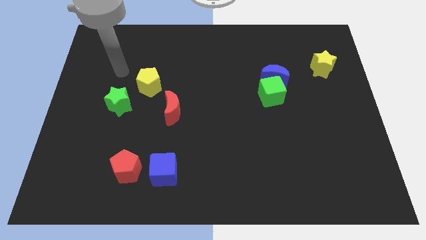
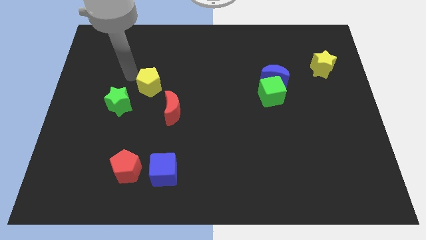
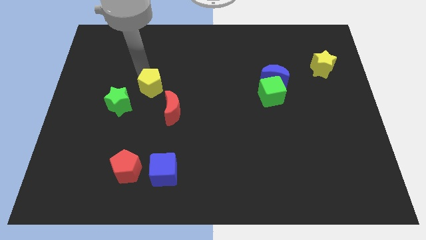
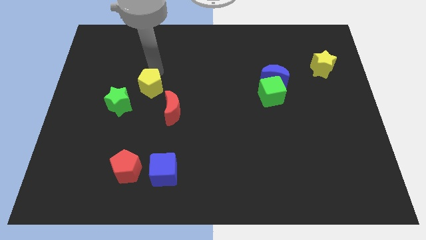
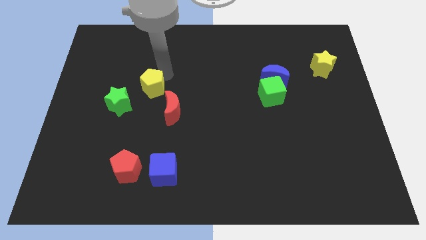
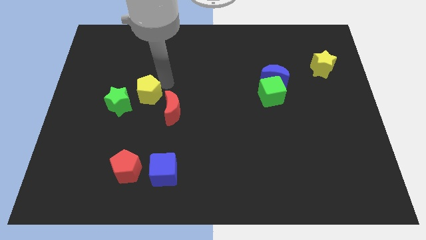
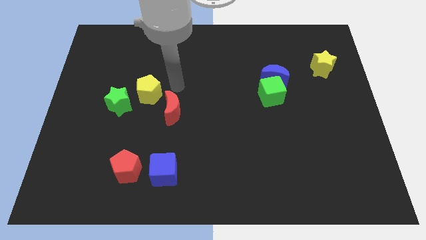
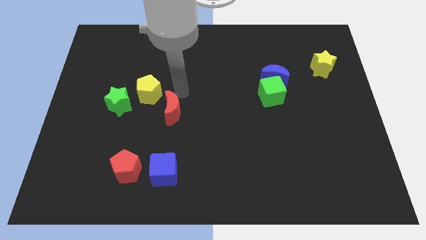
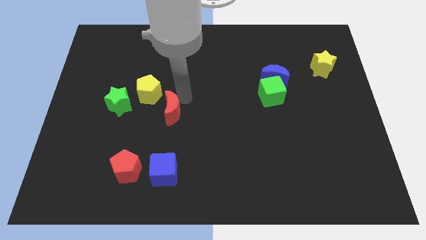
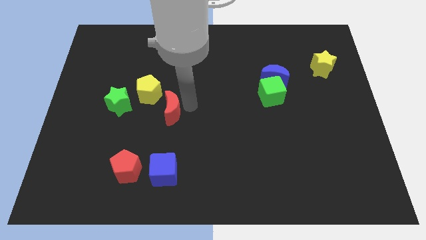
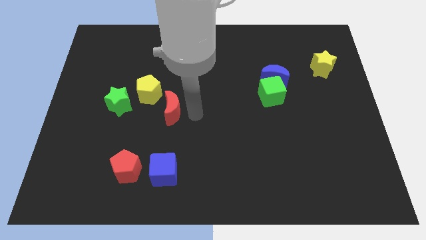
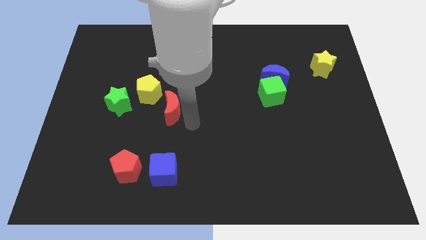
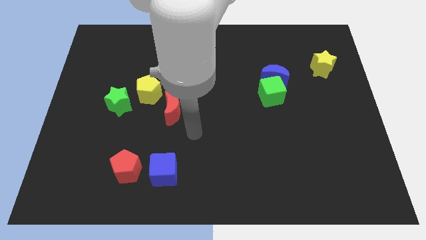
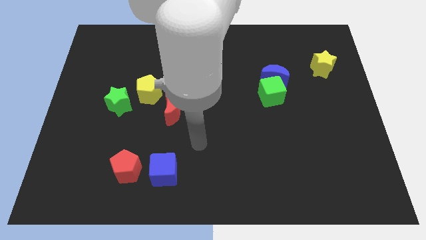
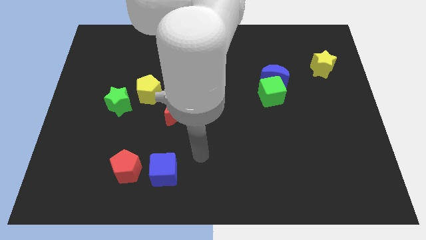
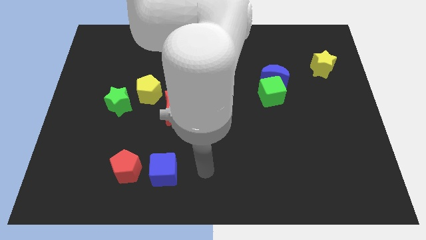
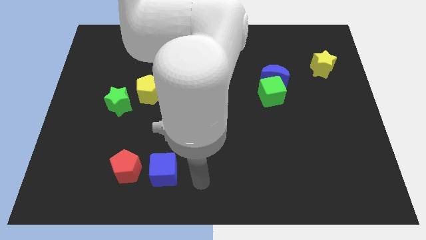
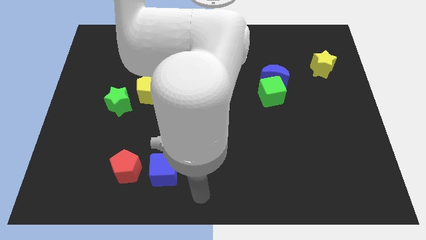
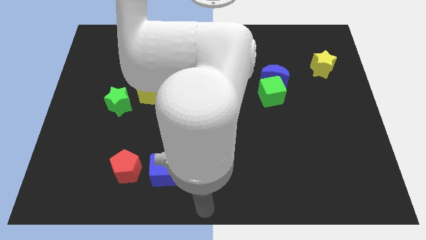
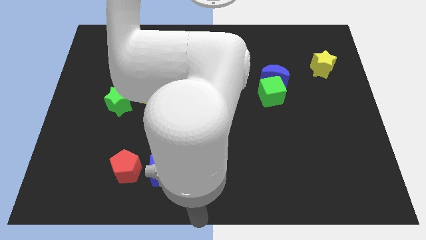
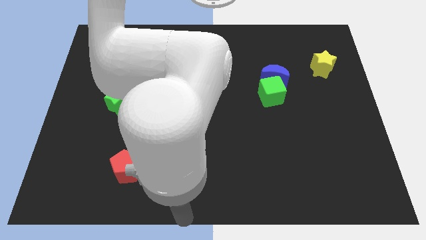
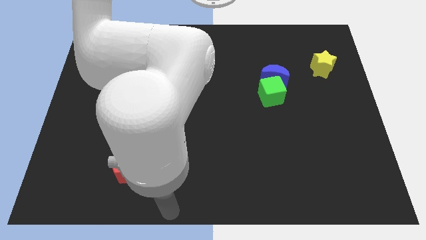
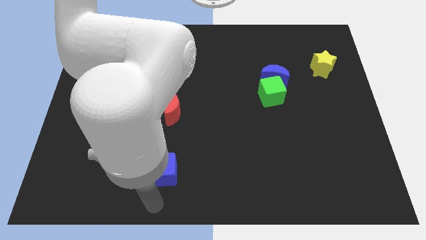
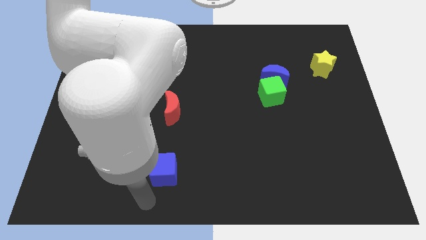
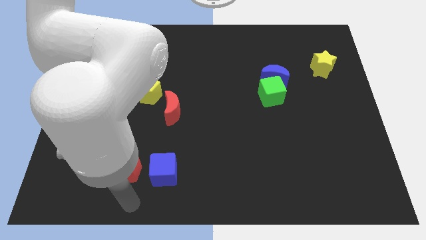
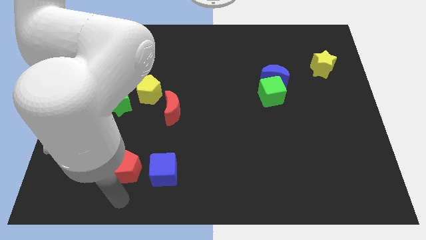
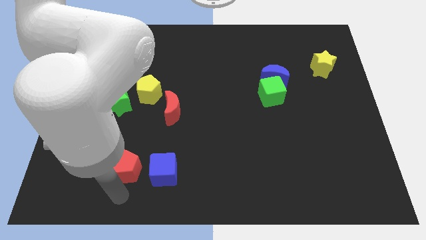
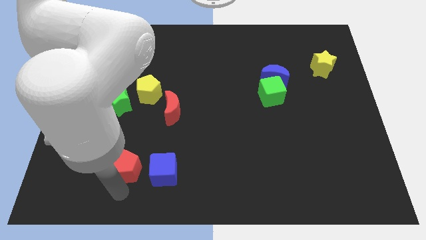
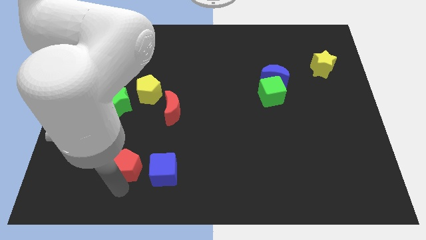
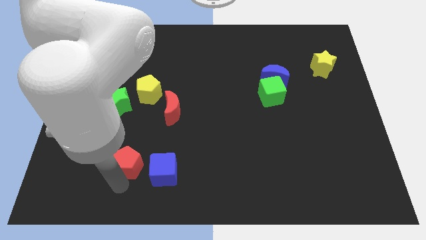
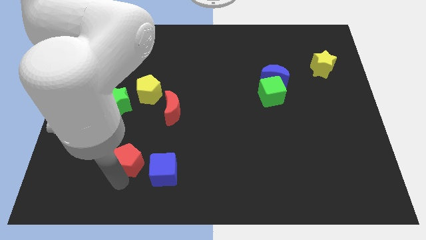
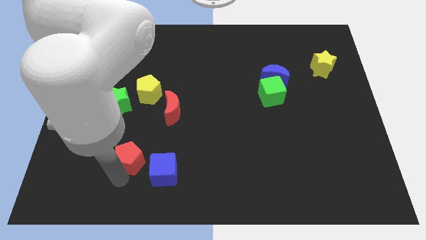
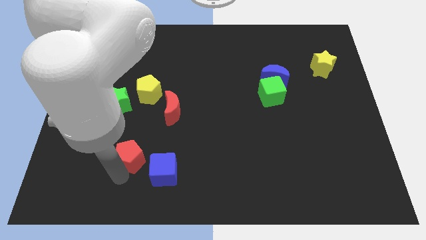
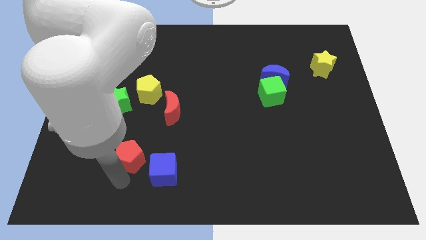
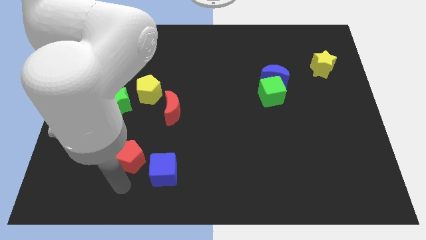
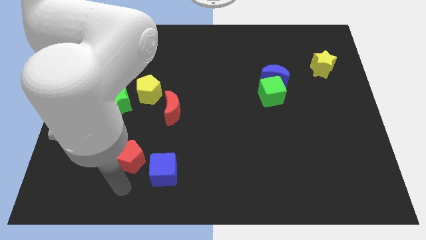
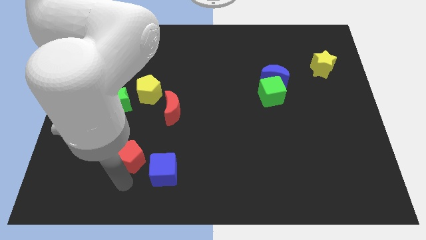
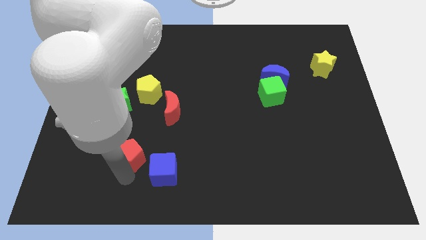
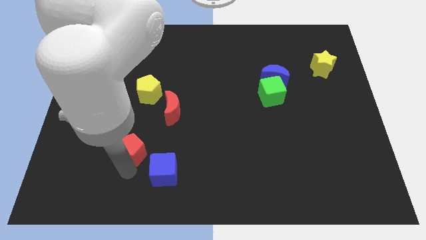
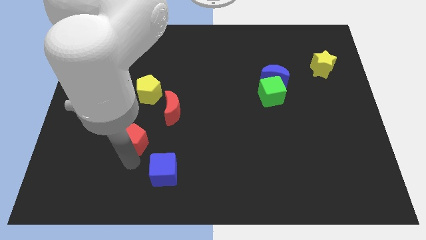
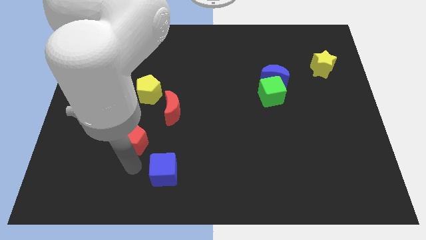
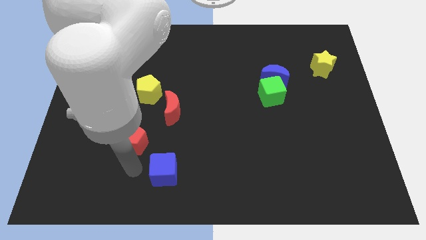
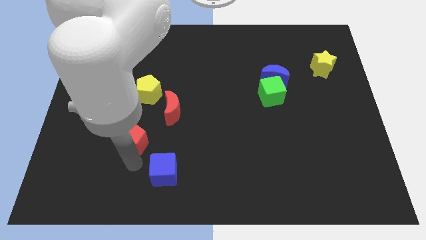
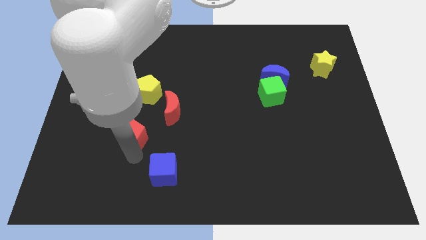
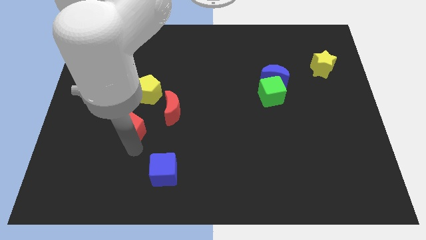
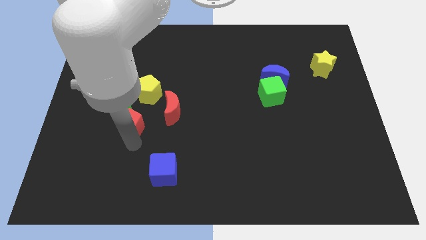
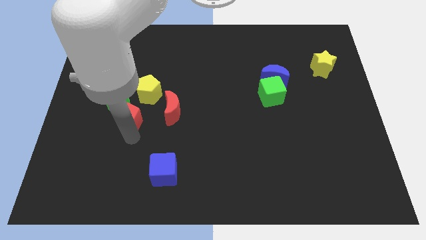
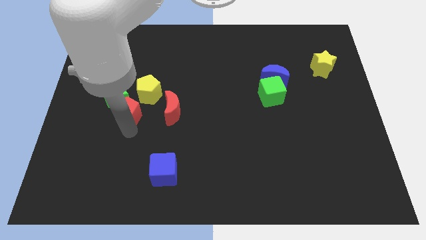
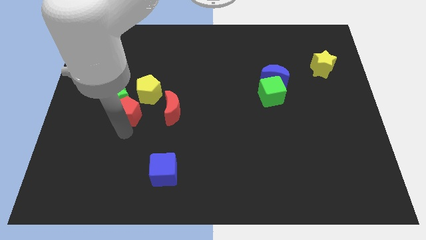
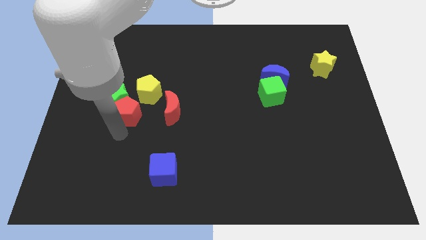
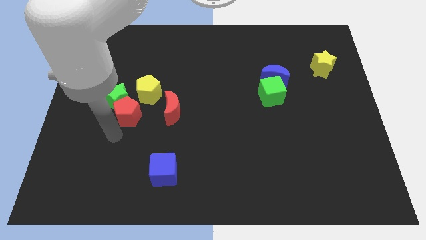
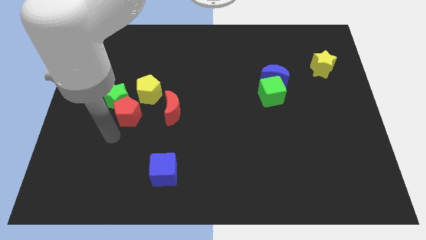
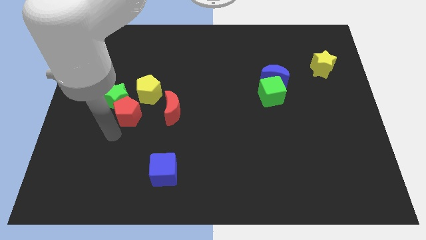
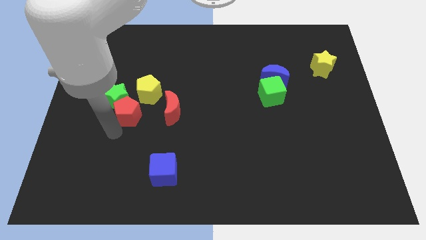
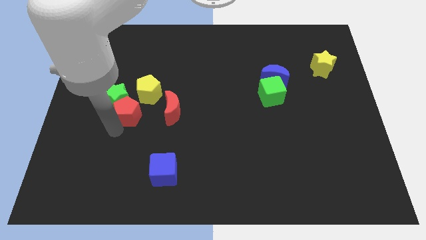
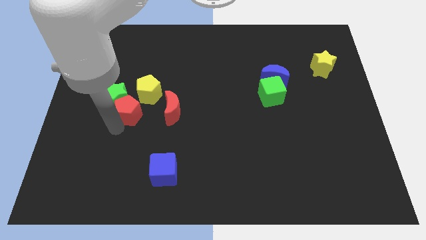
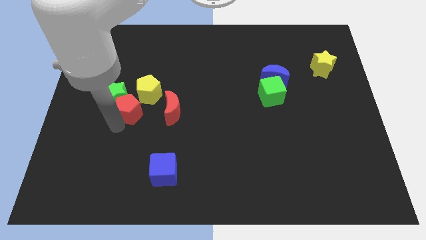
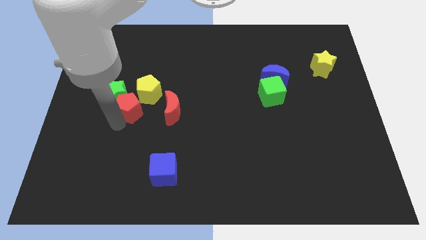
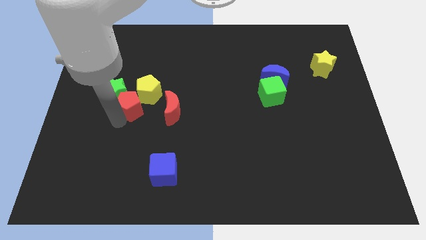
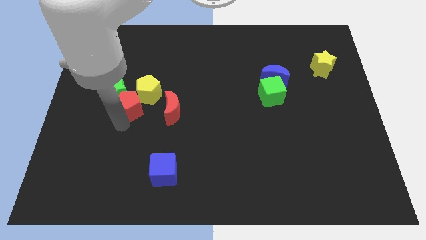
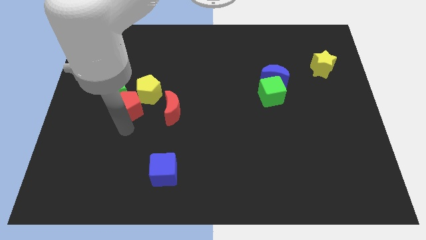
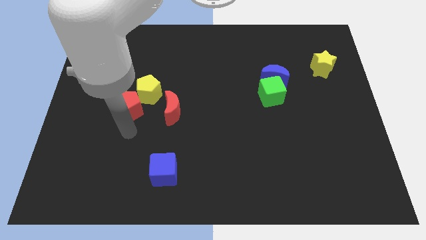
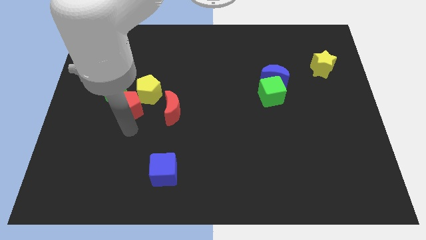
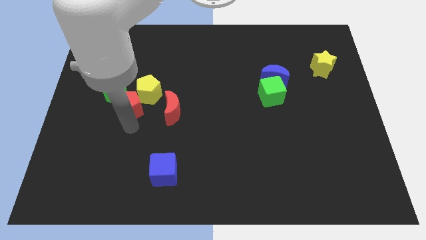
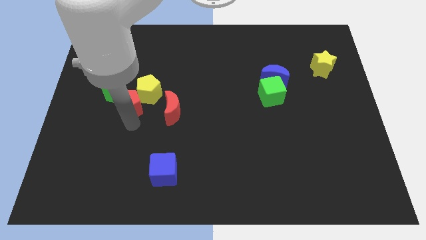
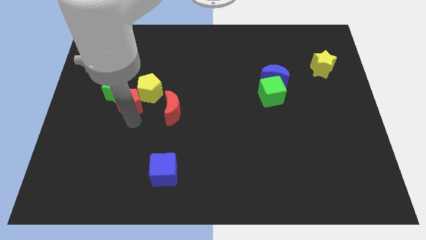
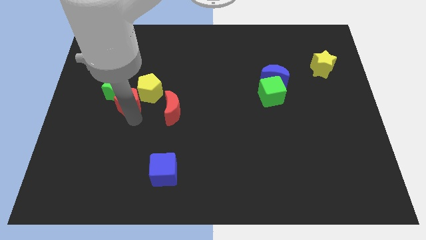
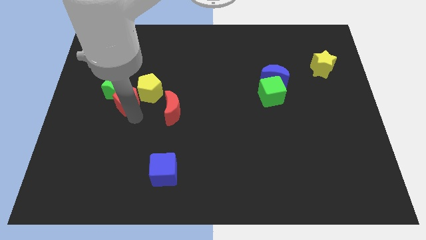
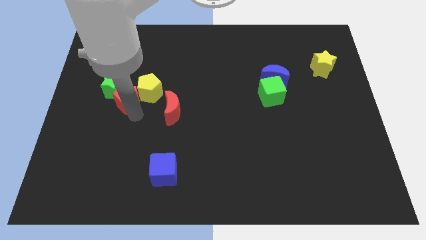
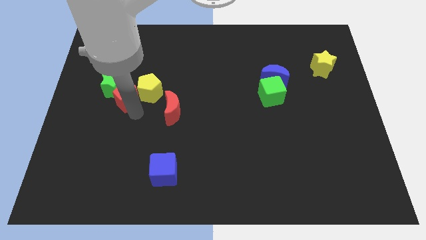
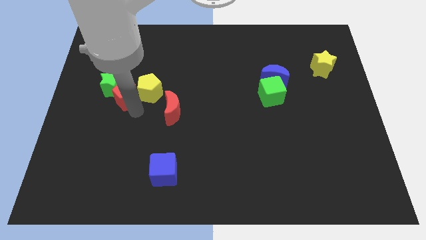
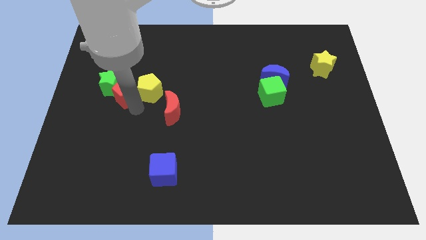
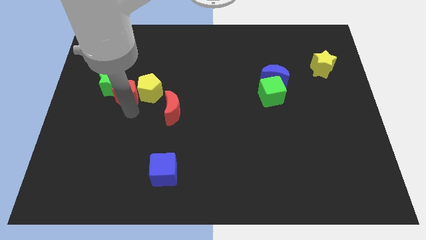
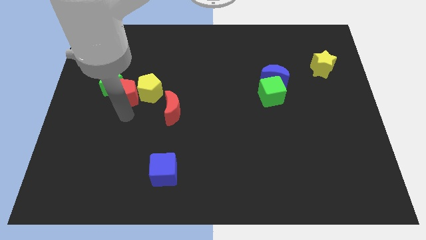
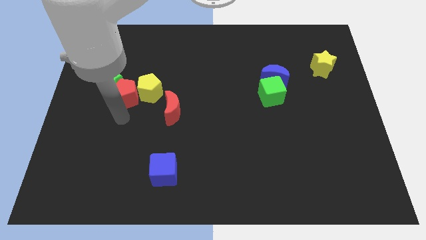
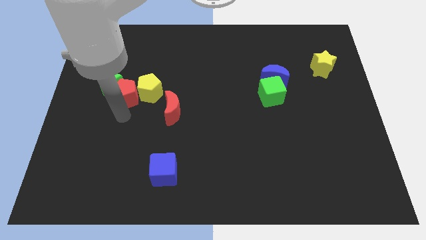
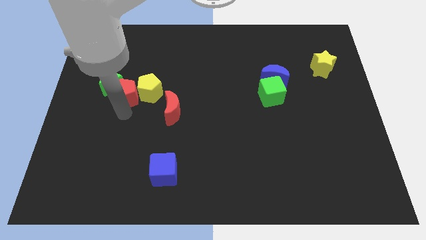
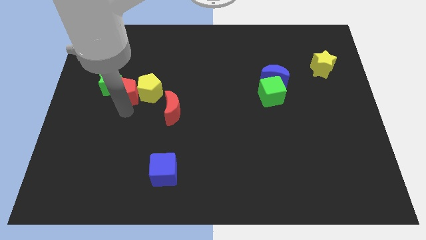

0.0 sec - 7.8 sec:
move the red pentagon up

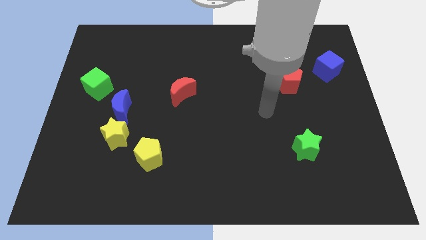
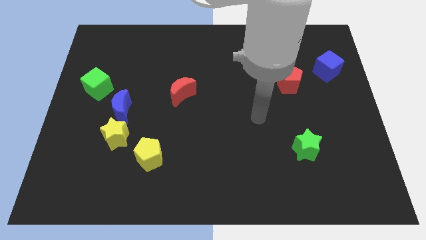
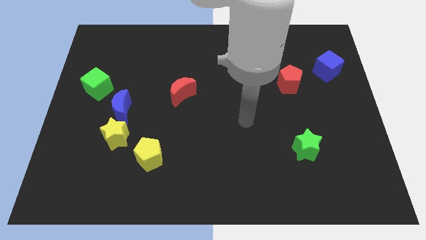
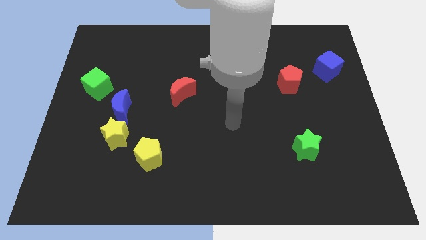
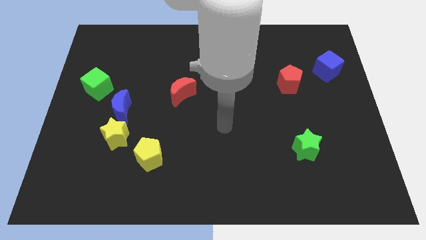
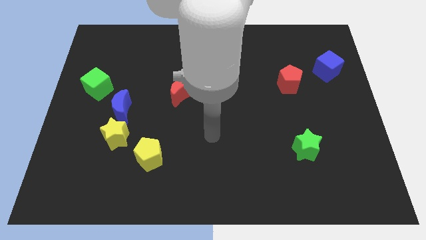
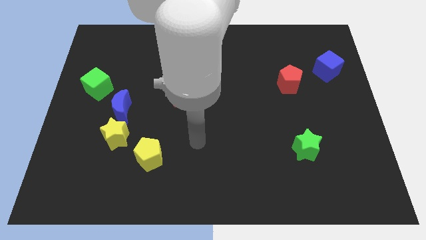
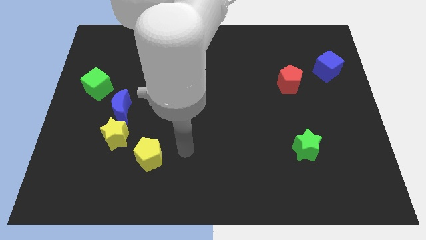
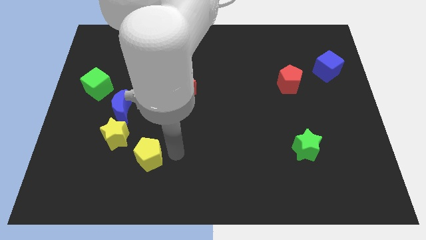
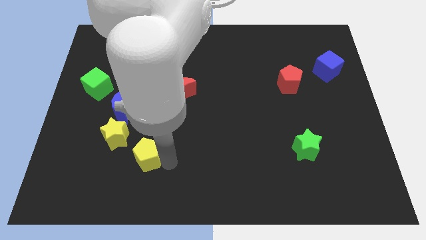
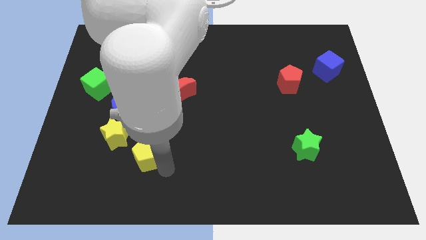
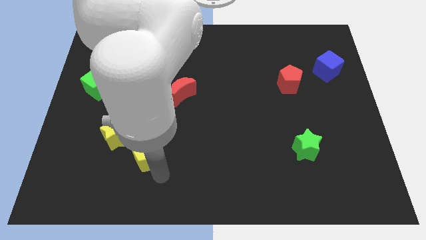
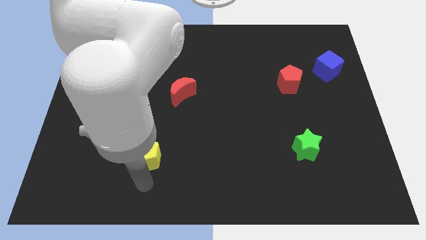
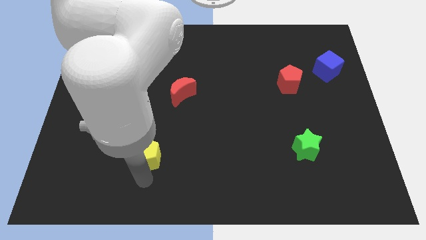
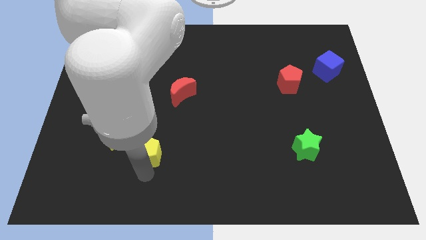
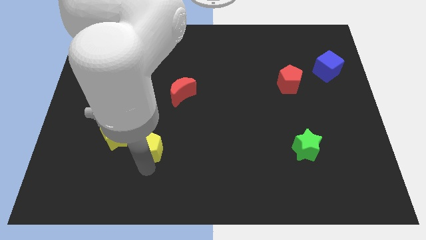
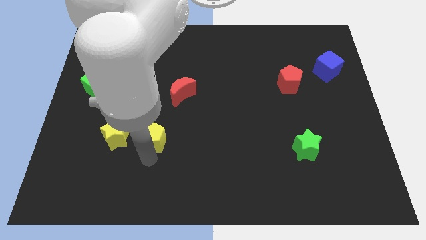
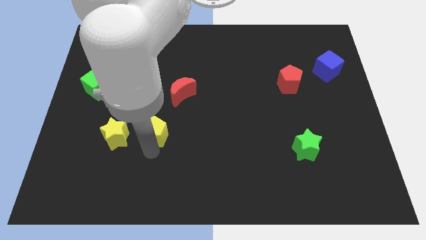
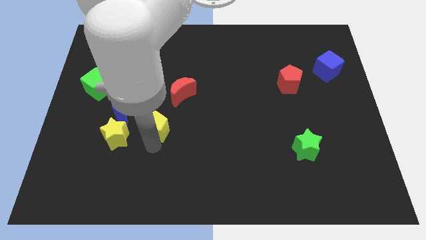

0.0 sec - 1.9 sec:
push the yellow pentagon a bit up
